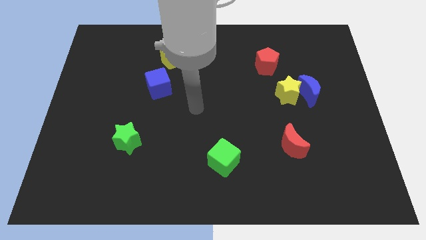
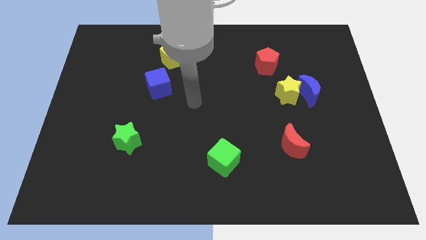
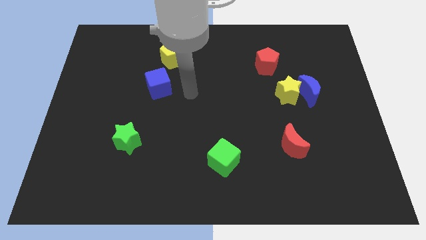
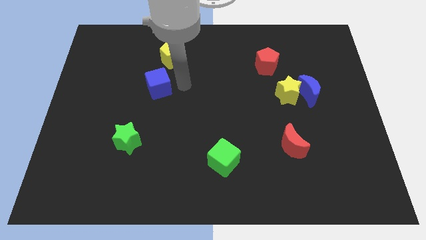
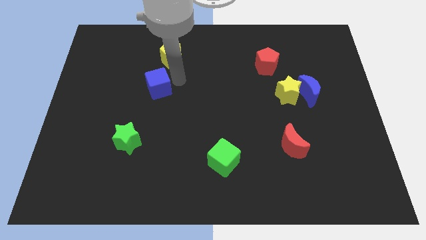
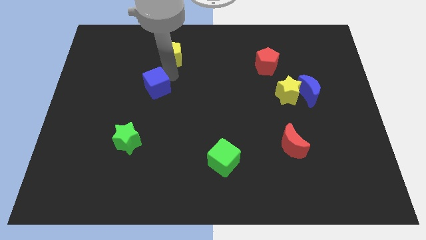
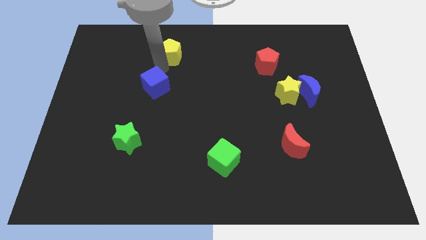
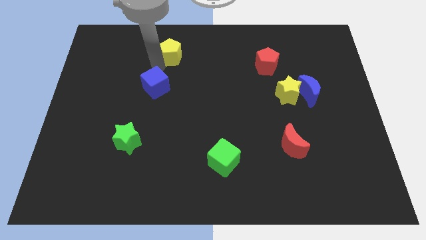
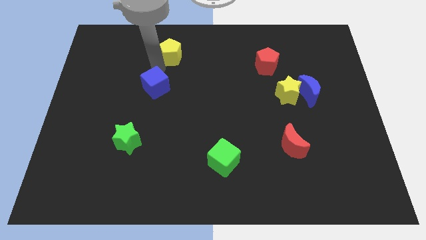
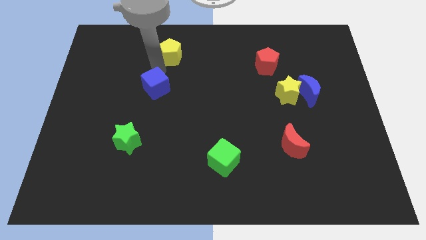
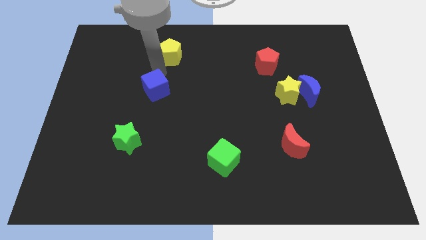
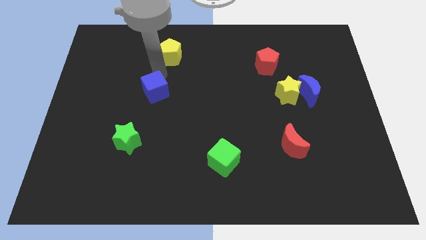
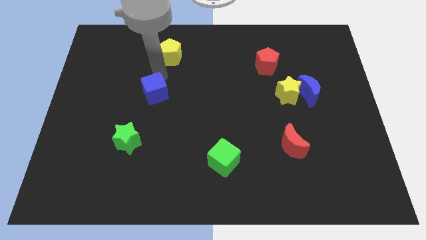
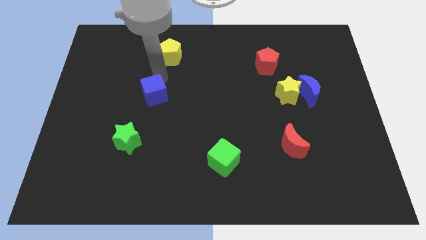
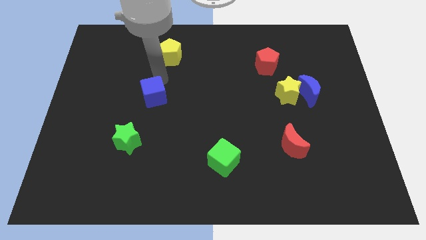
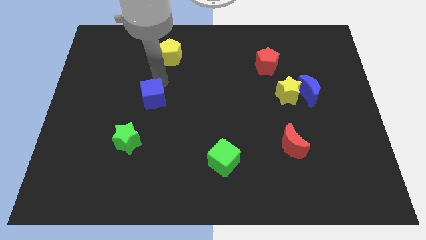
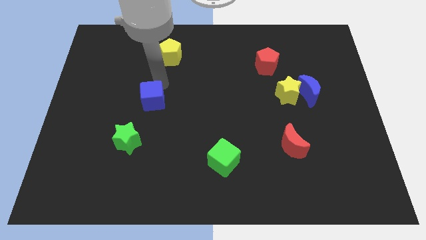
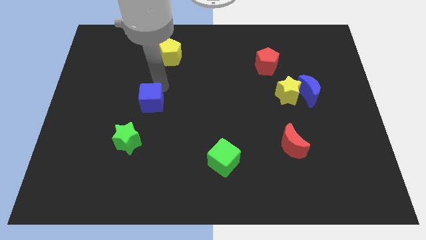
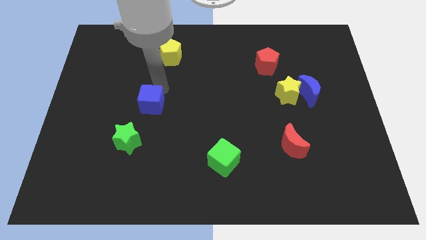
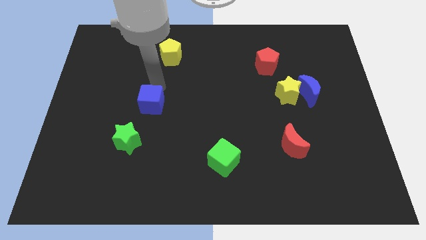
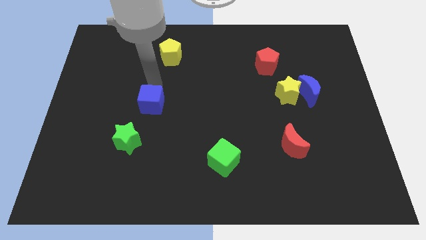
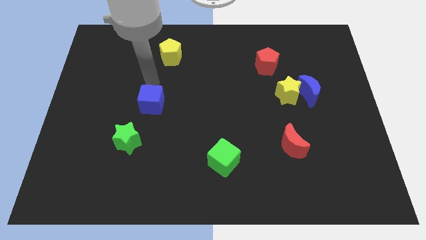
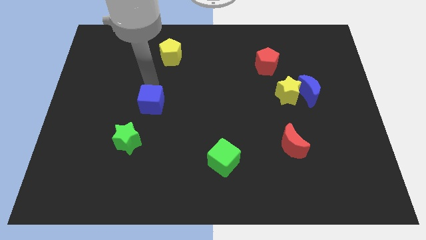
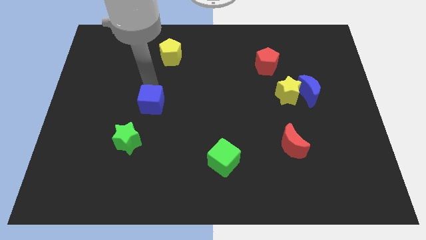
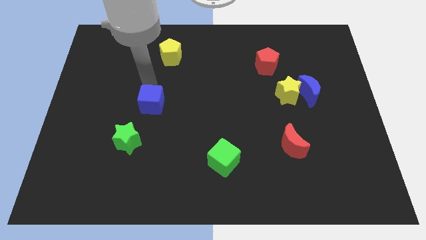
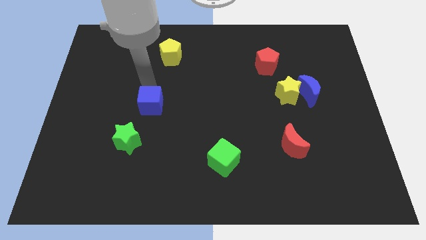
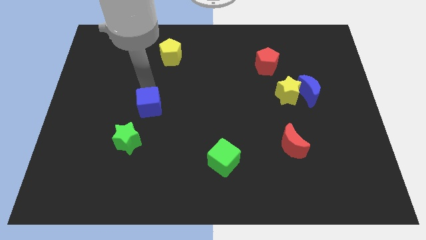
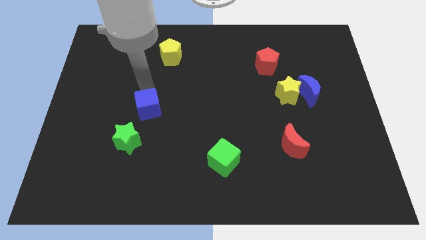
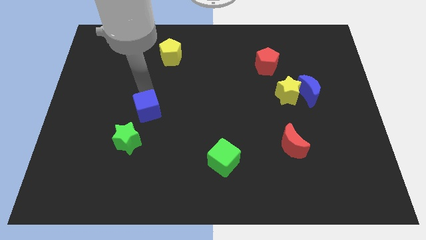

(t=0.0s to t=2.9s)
slide the blue cube slightly downwards

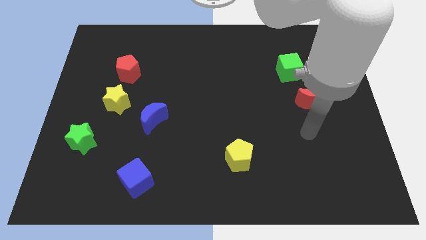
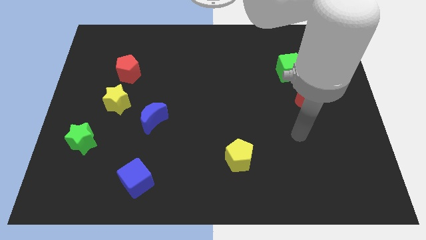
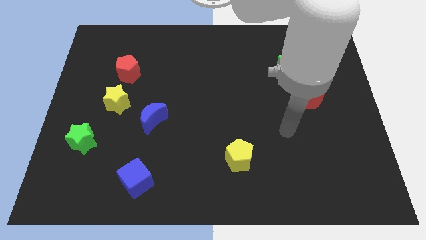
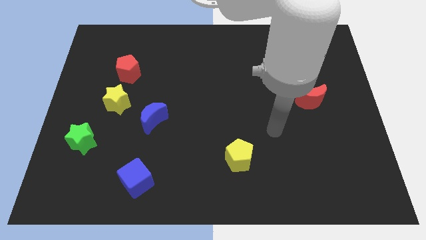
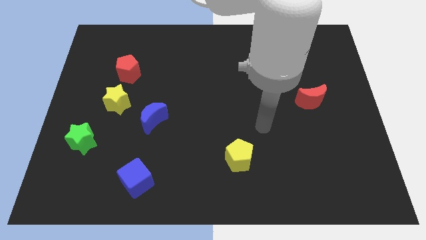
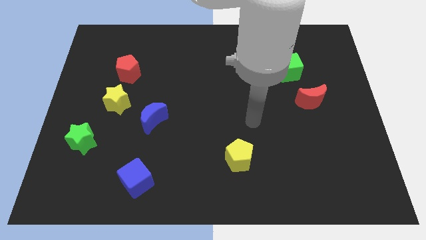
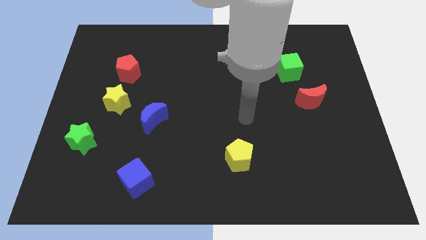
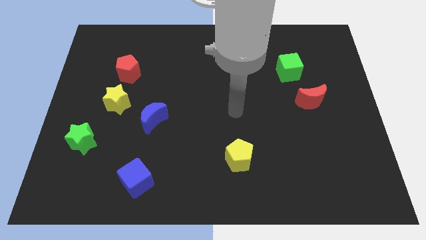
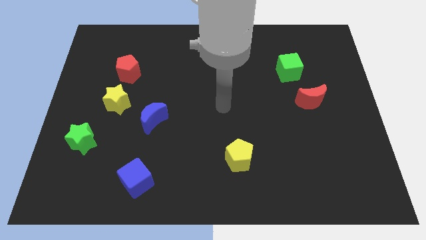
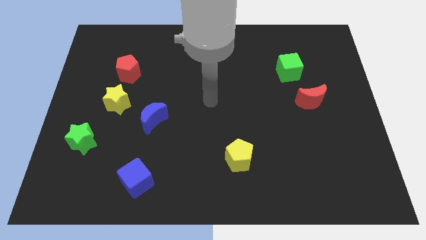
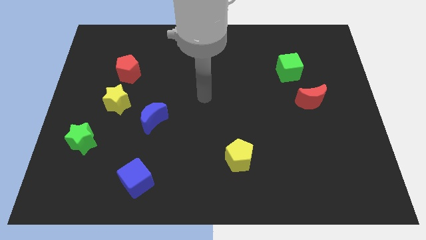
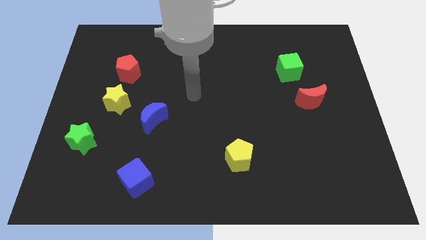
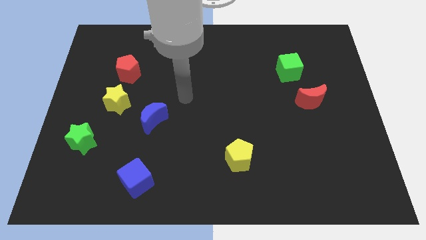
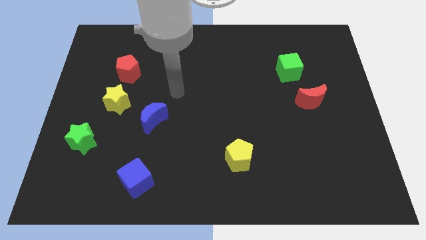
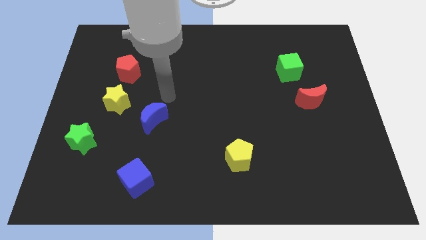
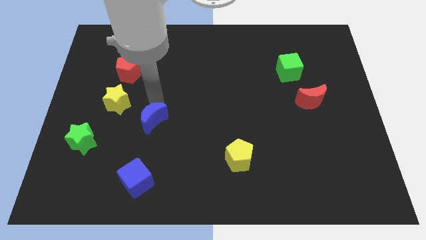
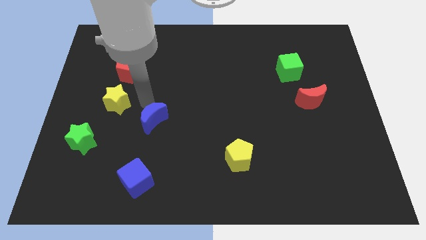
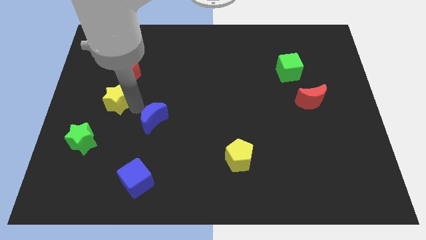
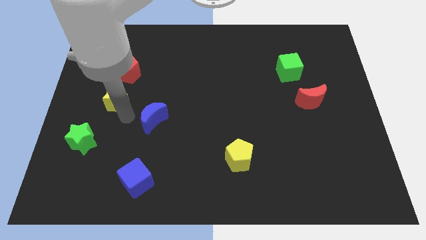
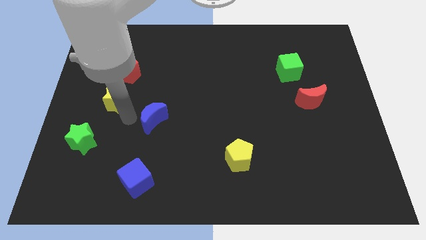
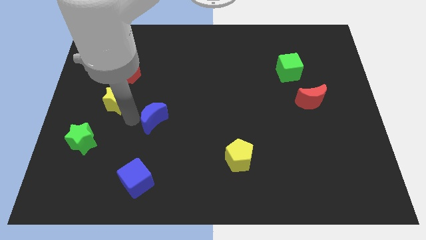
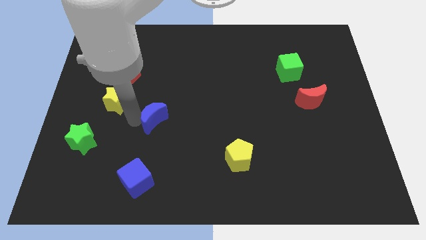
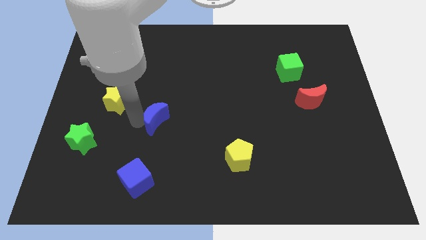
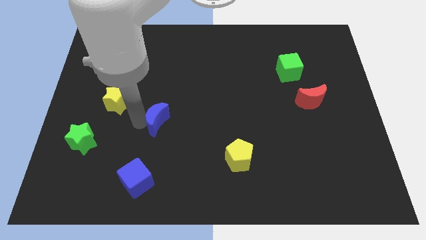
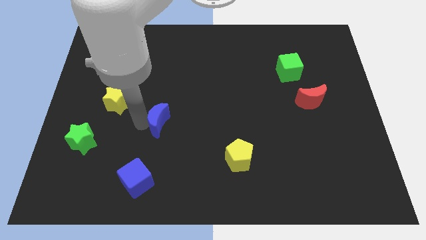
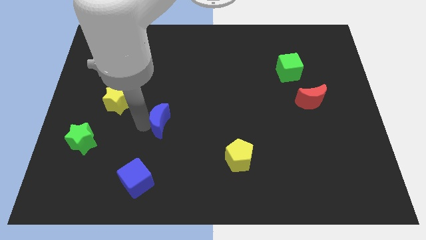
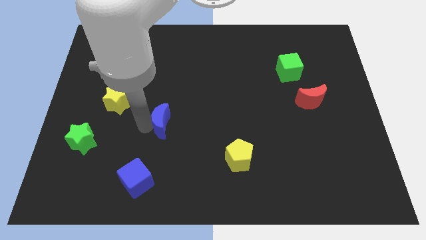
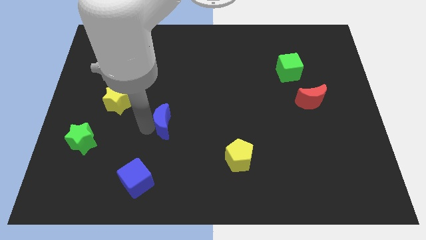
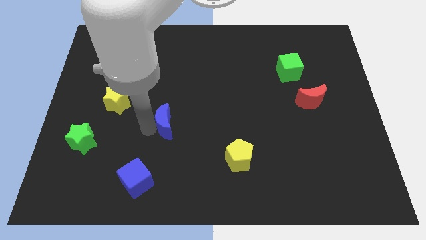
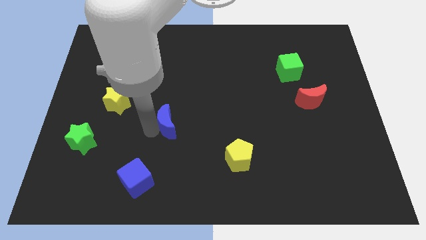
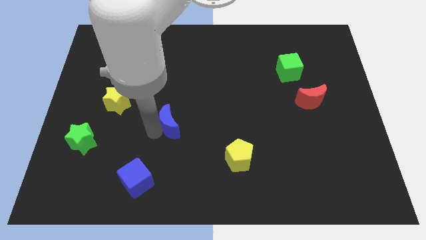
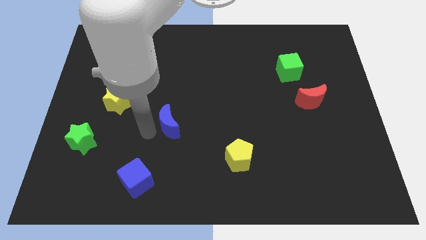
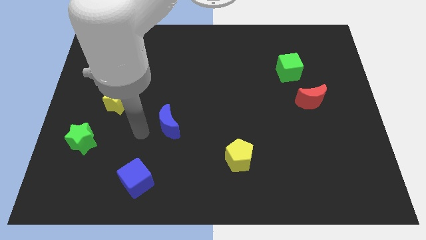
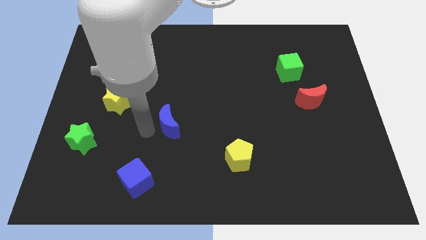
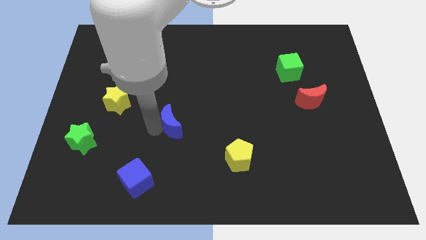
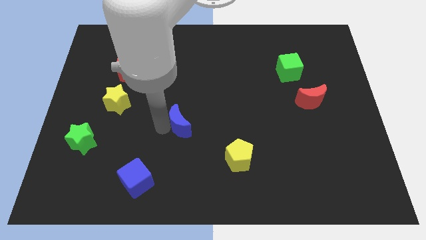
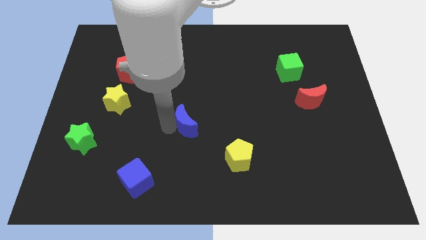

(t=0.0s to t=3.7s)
push the blue moon right somewhat

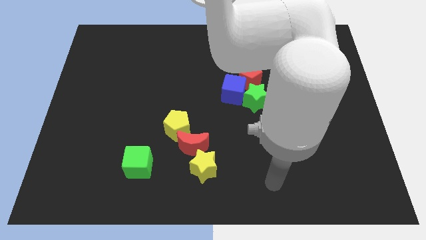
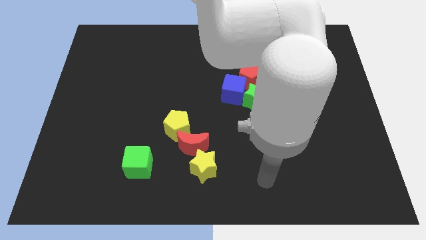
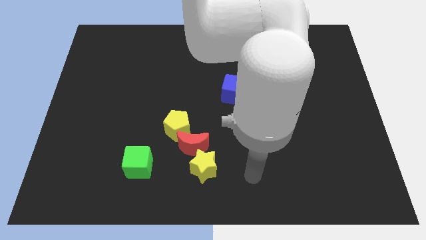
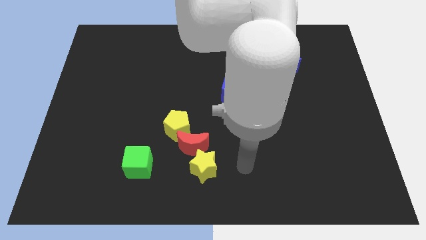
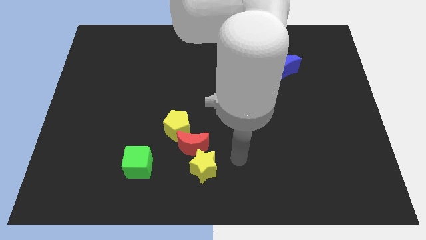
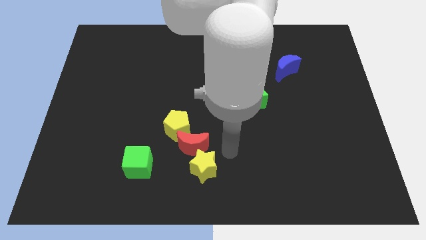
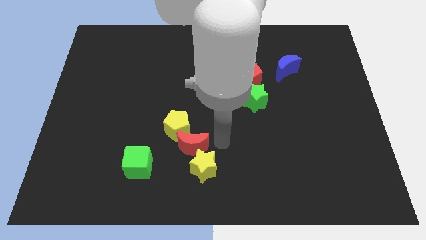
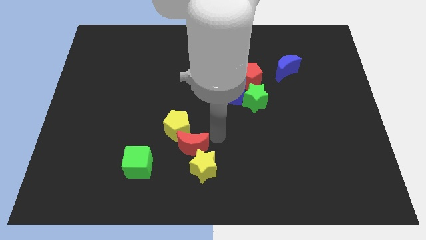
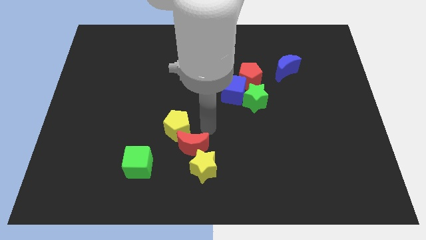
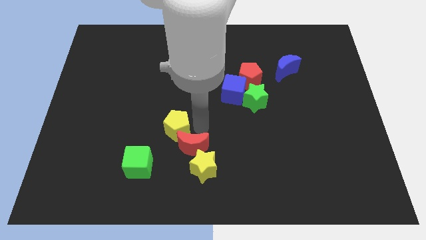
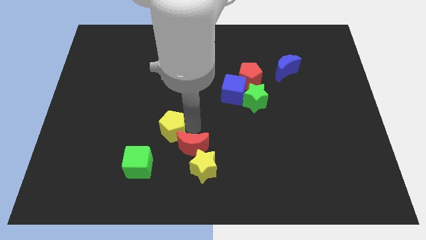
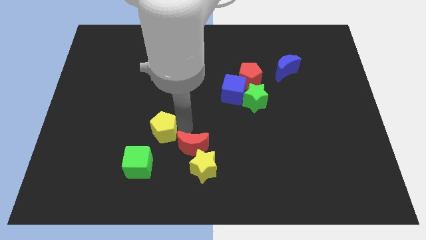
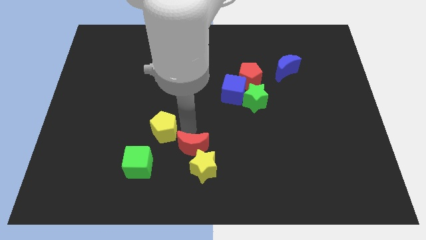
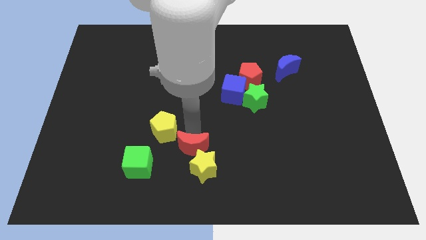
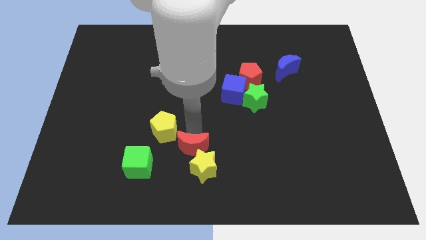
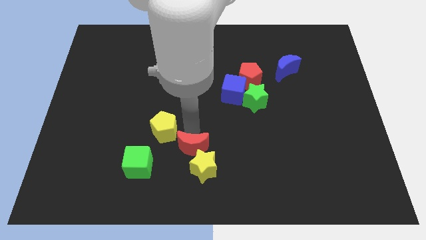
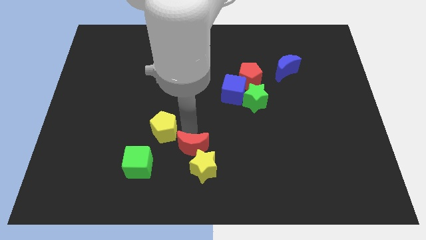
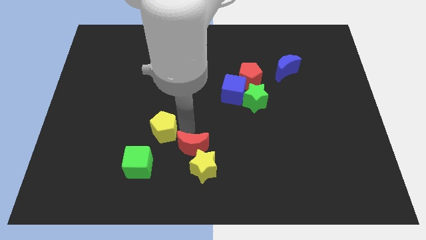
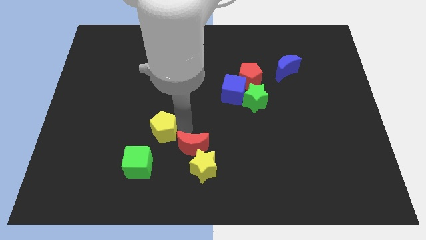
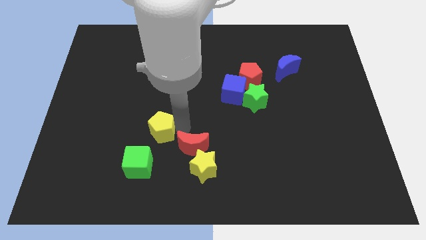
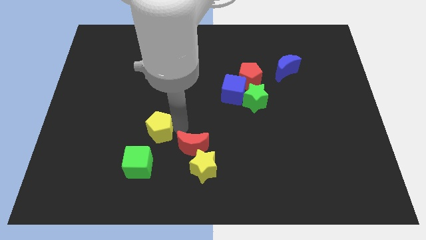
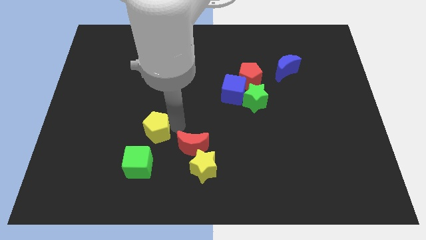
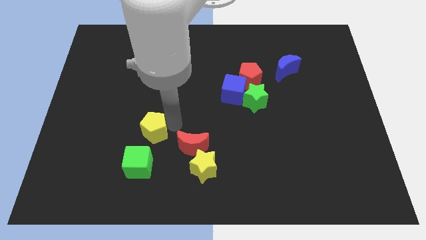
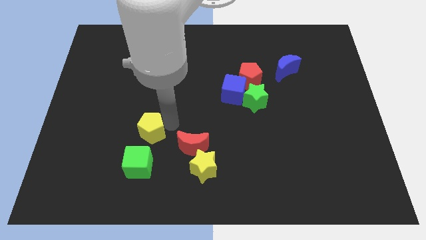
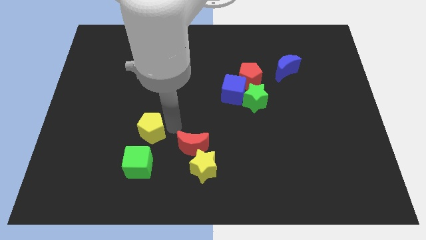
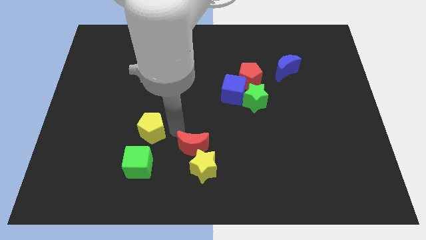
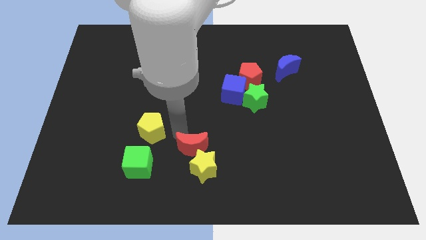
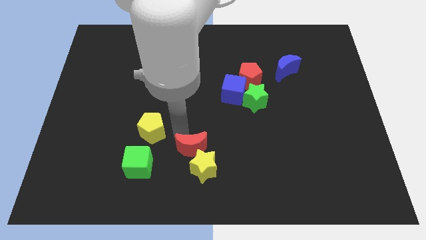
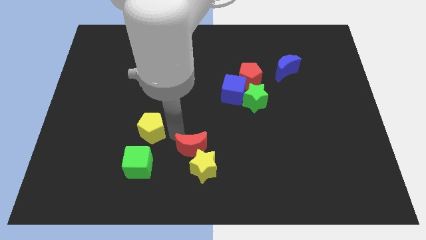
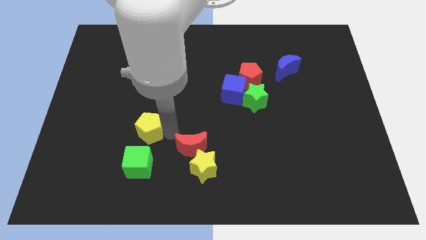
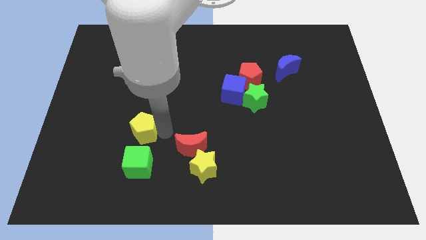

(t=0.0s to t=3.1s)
move the yellow pentagon to the left somewhat
